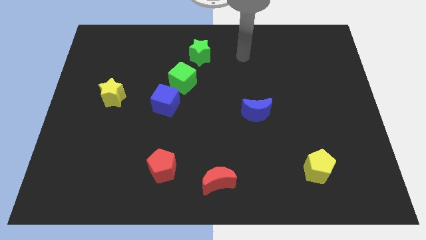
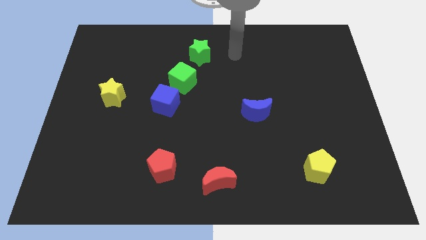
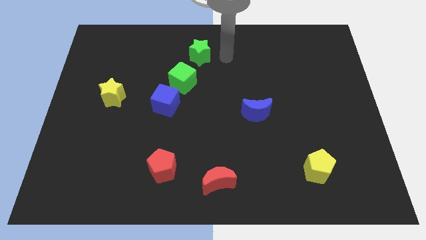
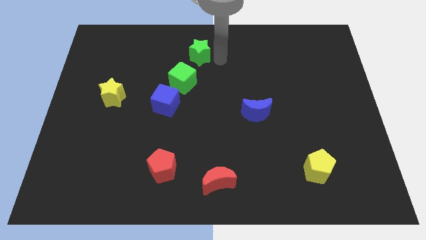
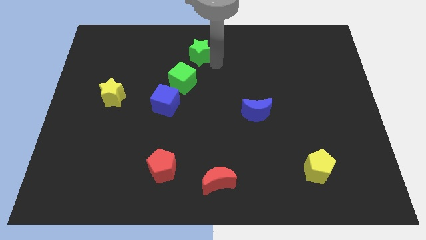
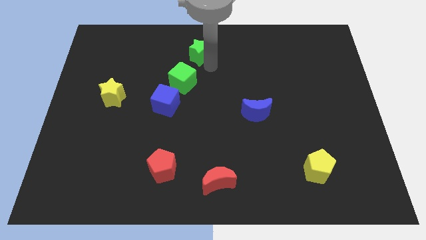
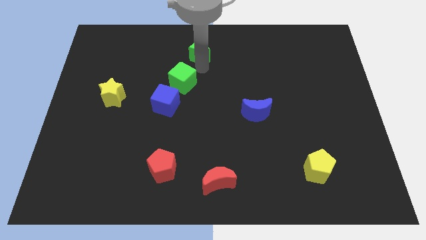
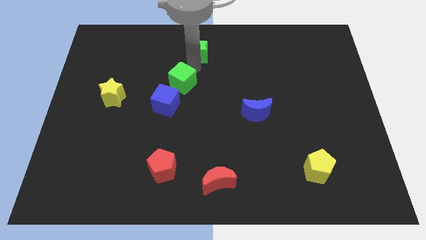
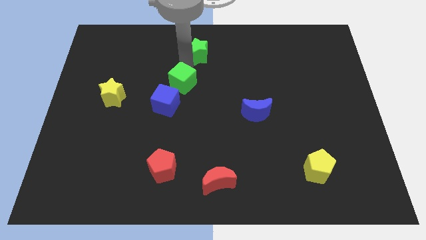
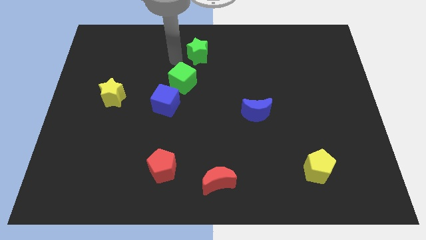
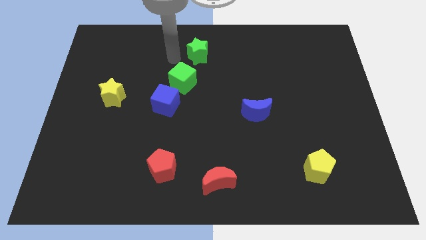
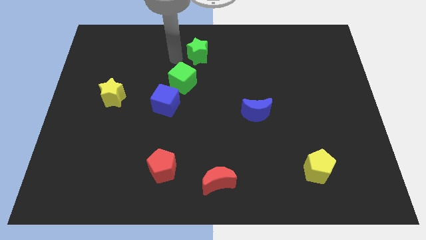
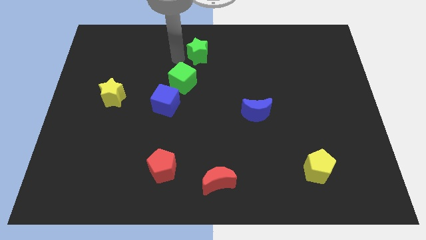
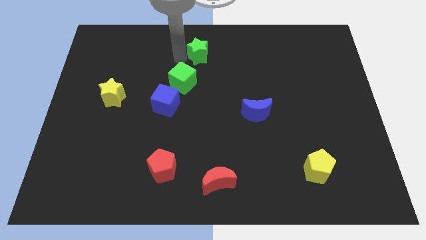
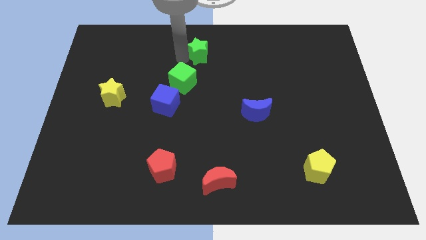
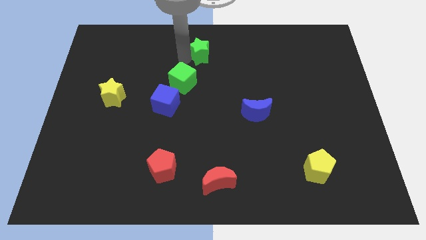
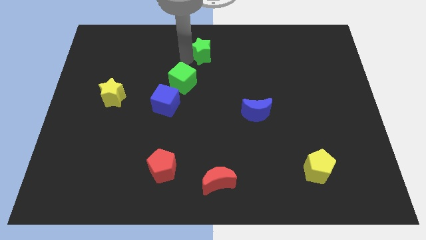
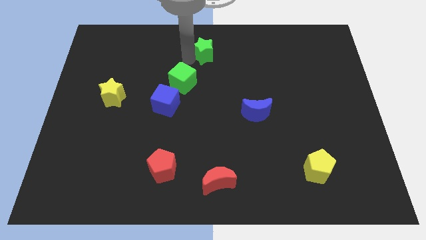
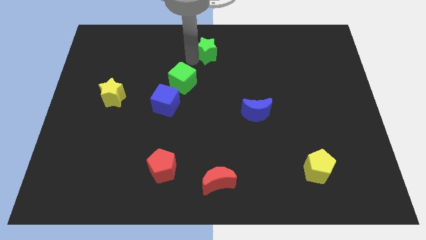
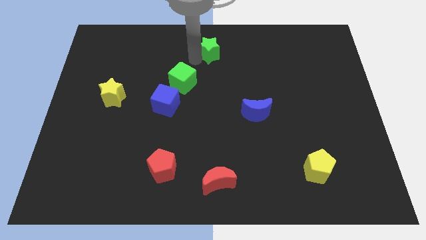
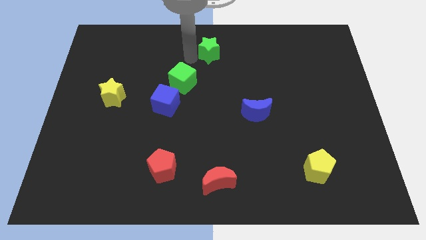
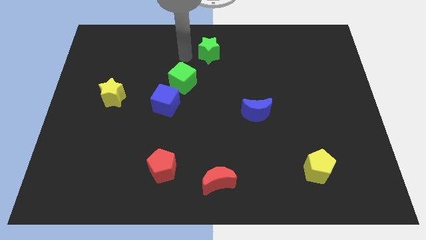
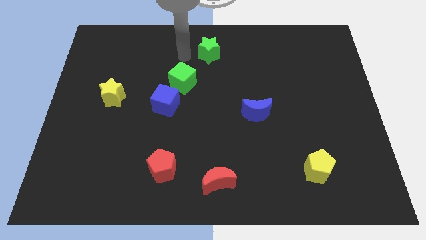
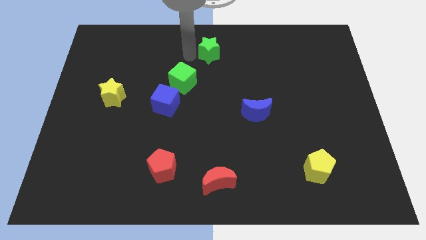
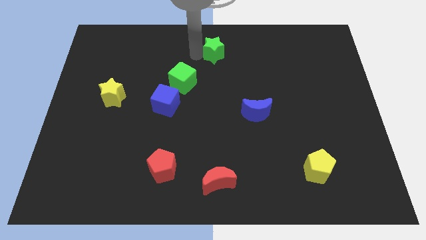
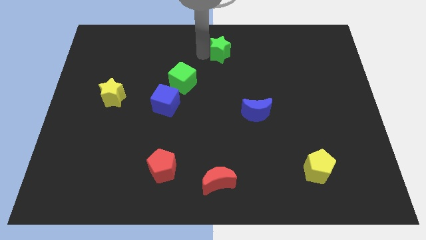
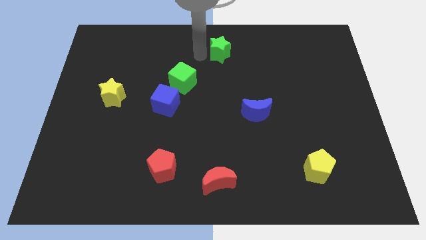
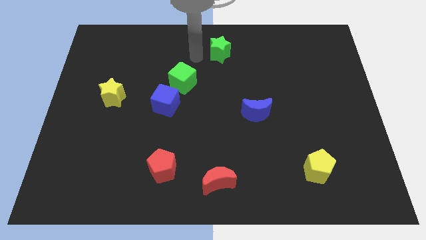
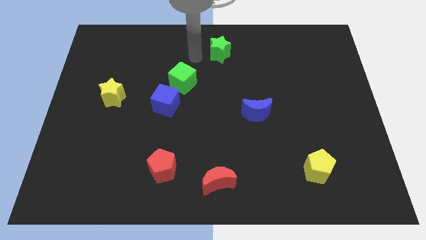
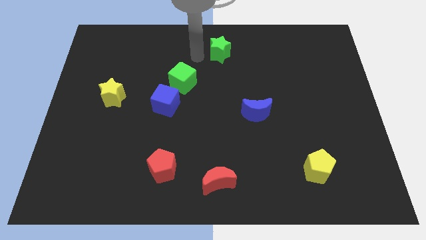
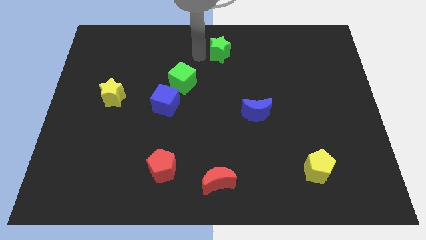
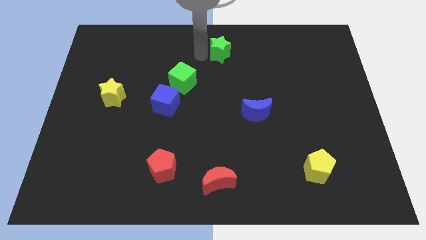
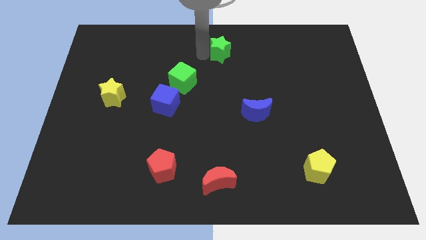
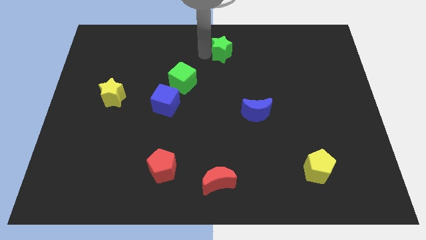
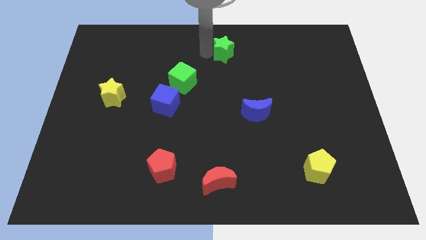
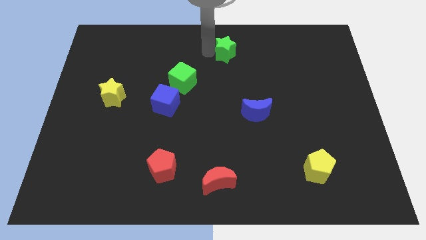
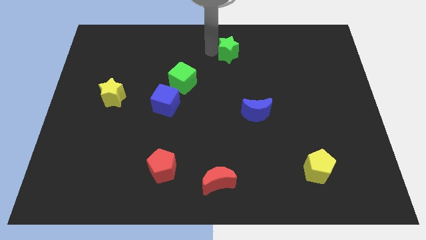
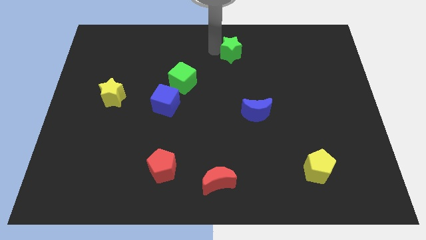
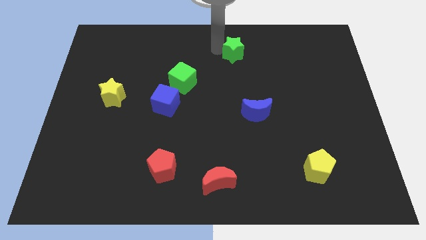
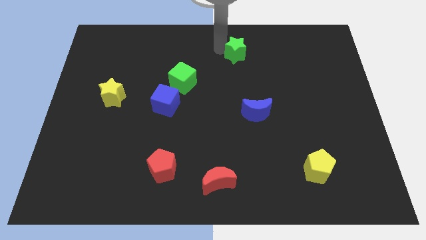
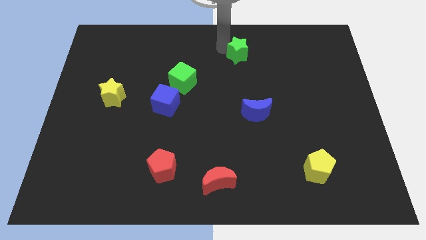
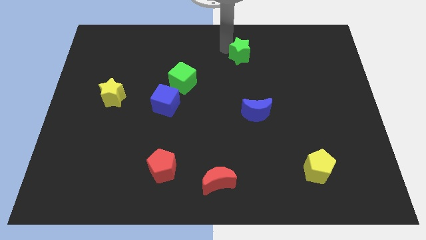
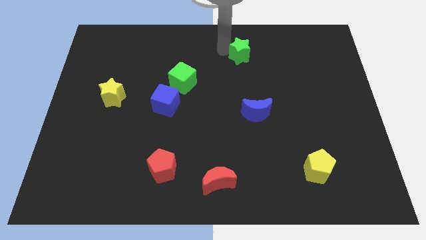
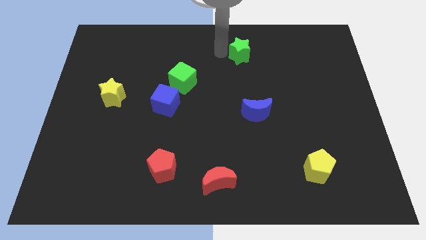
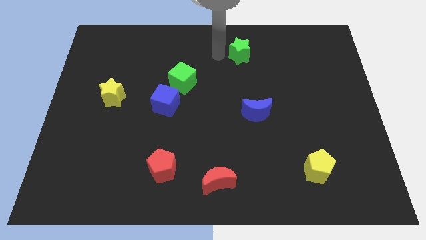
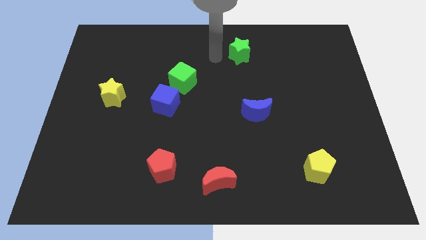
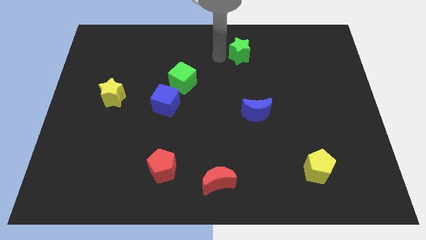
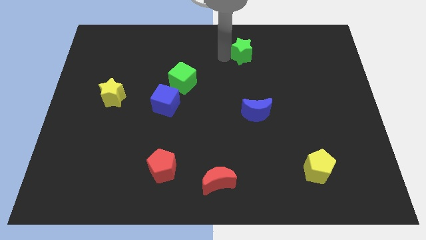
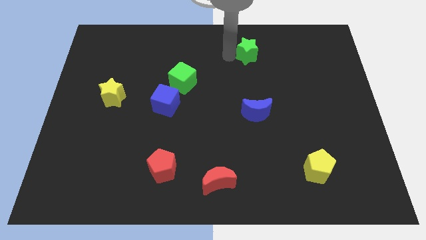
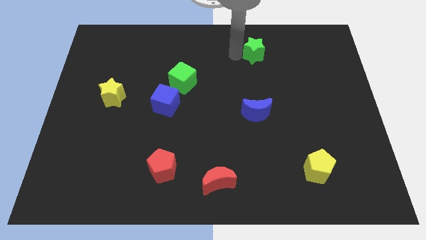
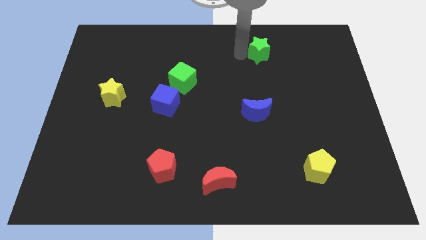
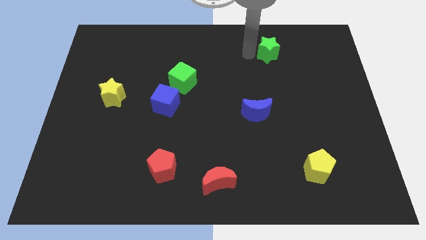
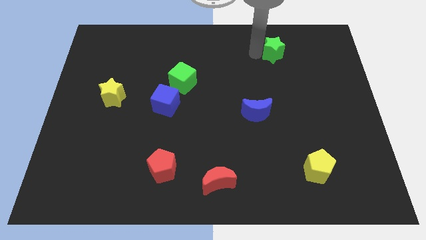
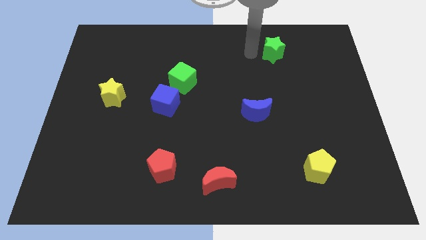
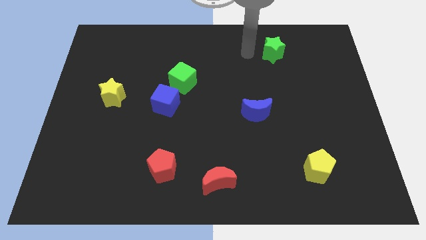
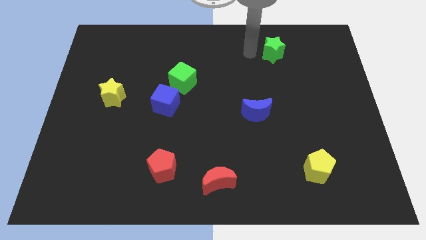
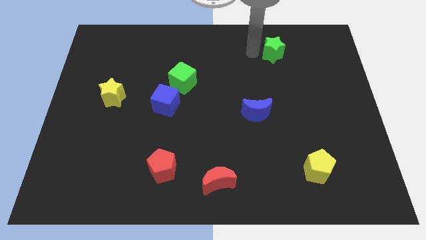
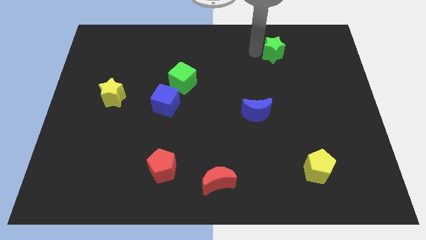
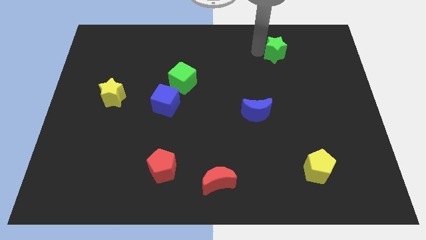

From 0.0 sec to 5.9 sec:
push the green star to the right

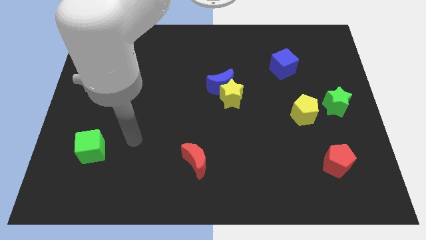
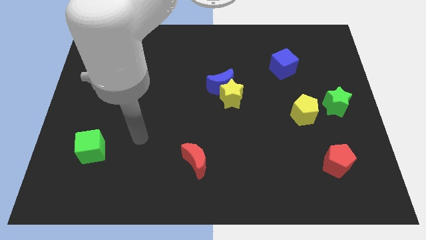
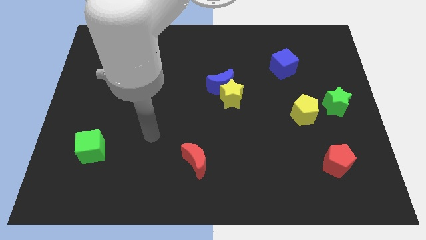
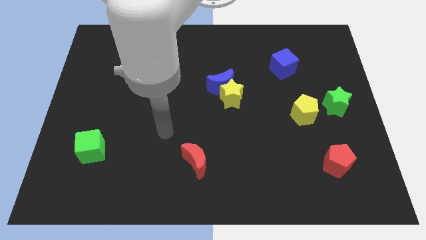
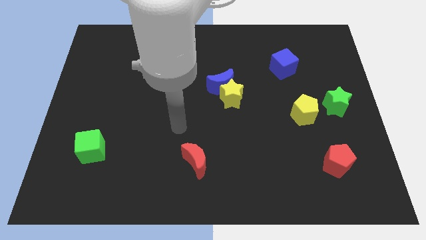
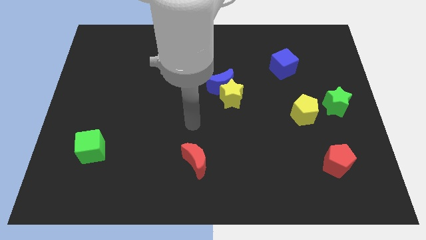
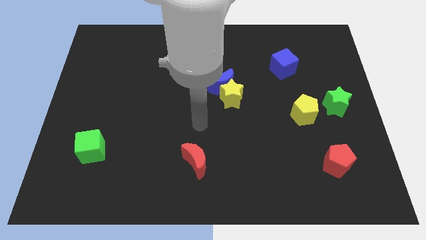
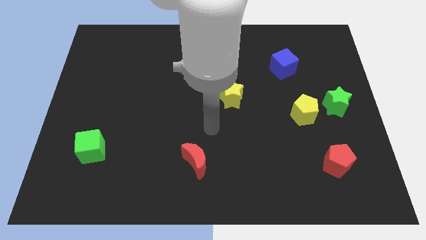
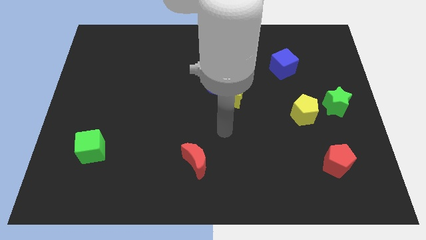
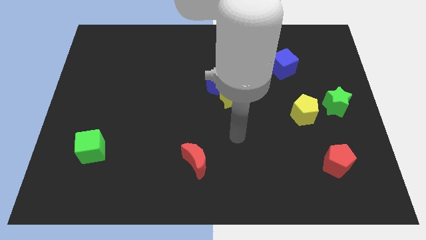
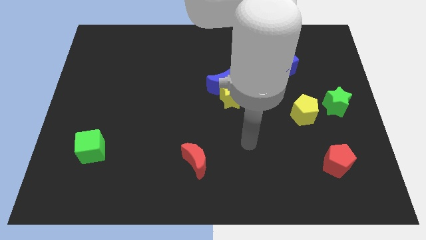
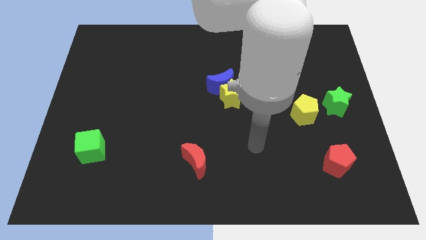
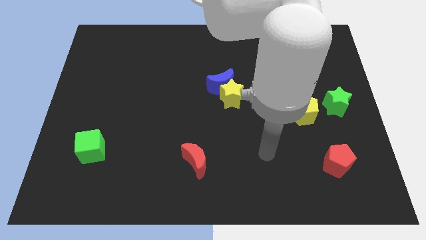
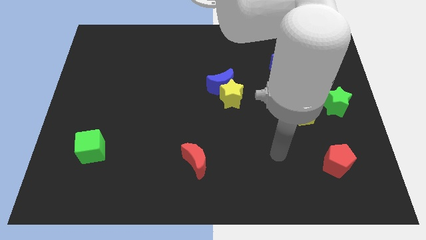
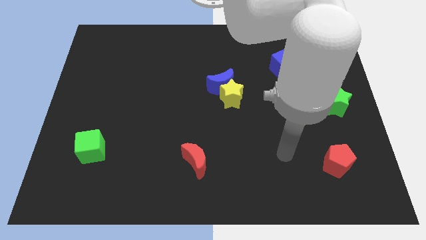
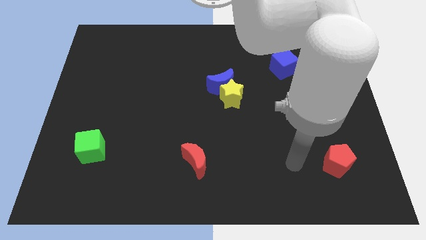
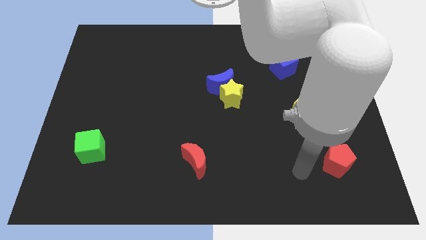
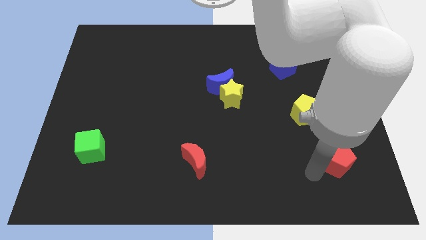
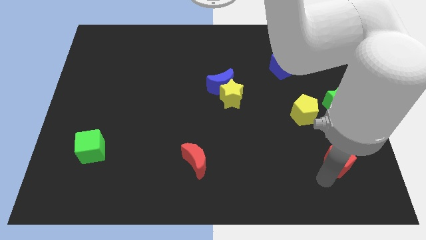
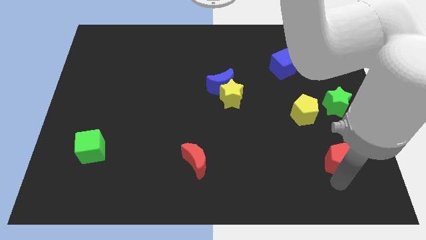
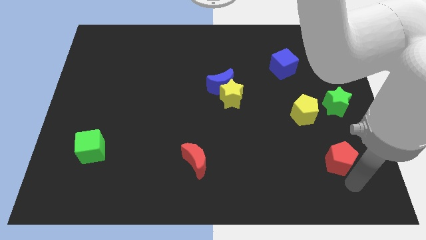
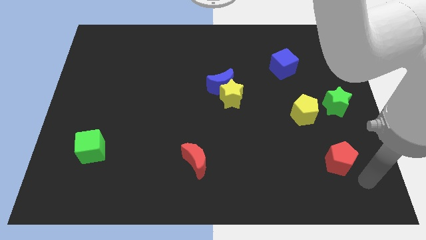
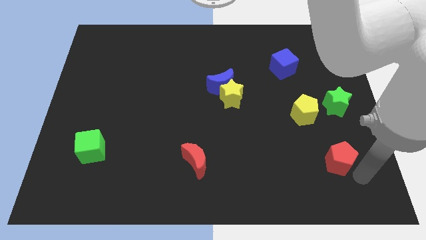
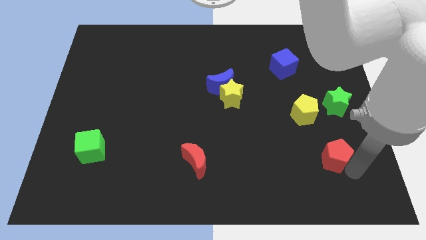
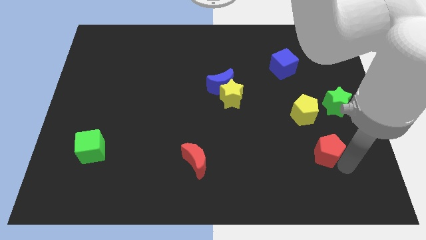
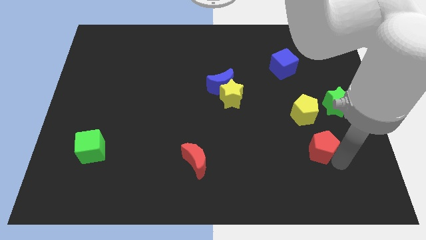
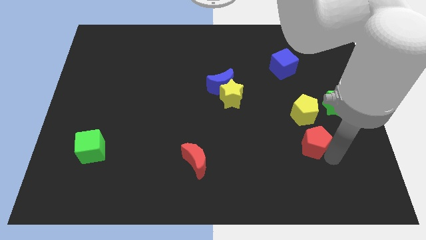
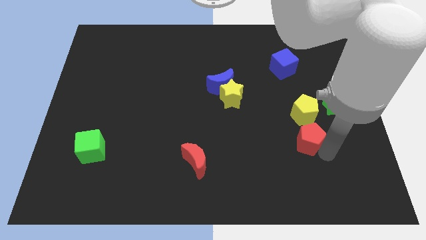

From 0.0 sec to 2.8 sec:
slightly move the red pentagon up and then to the left
